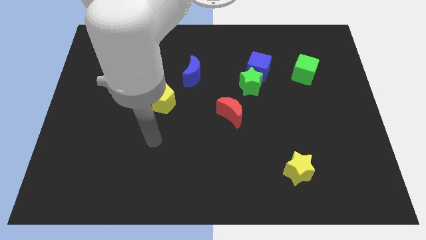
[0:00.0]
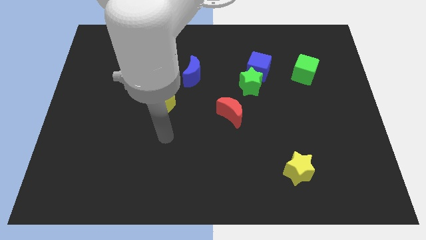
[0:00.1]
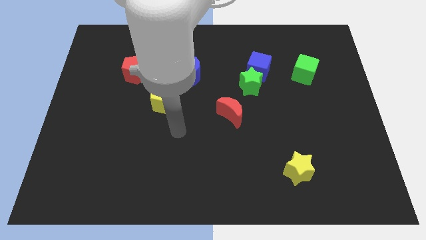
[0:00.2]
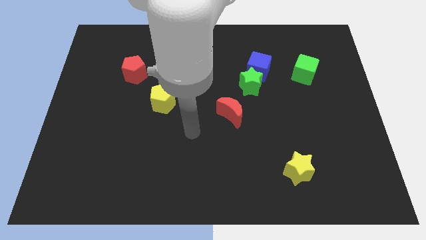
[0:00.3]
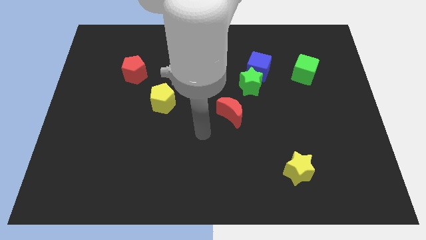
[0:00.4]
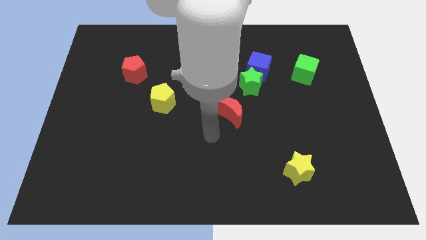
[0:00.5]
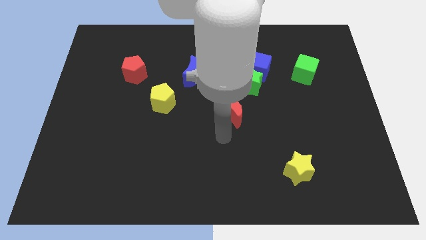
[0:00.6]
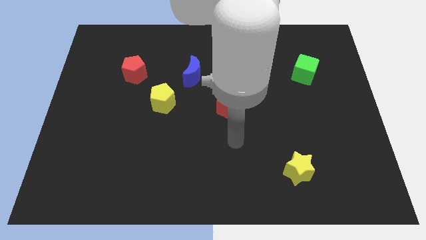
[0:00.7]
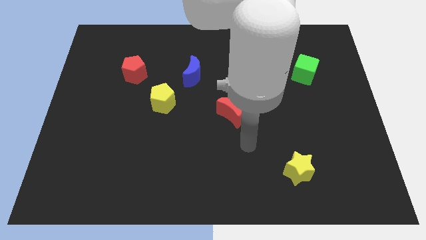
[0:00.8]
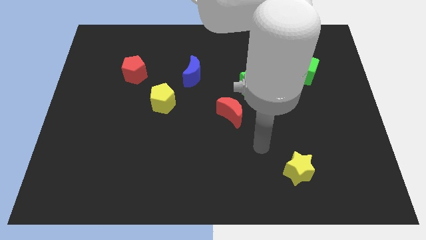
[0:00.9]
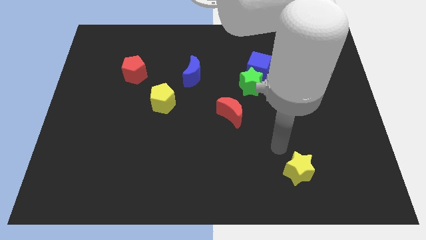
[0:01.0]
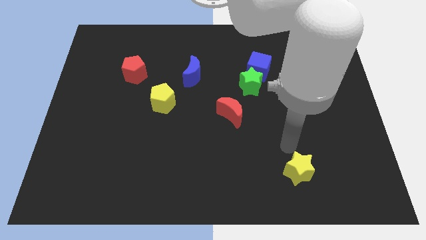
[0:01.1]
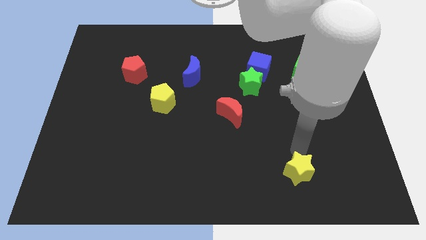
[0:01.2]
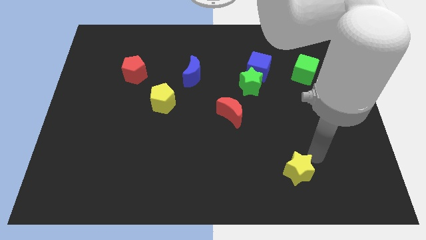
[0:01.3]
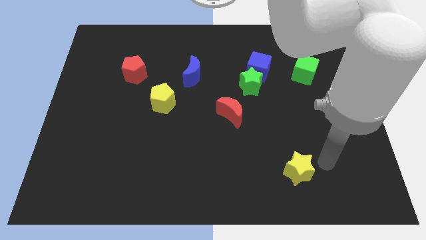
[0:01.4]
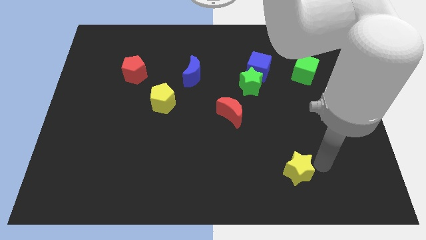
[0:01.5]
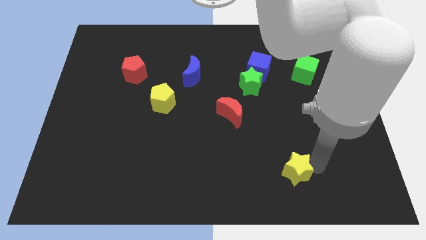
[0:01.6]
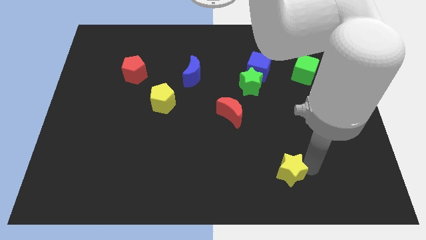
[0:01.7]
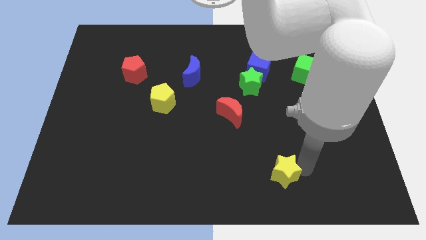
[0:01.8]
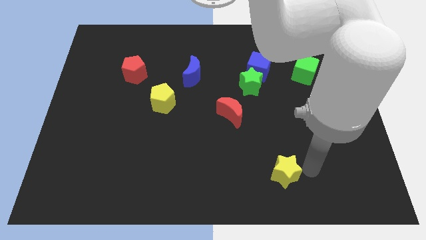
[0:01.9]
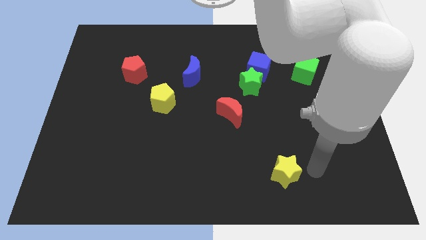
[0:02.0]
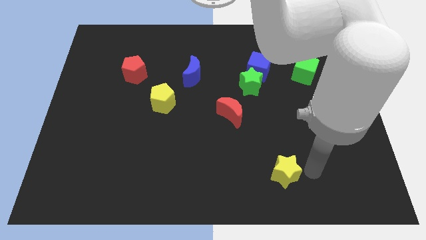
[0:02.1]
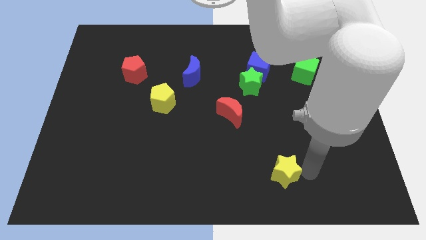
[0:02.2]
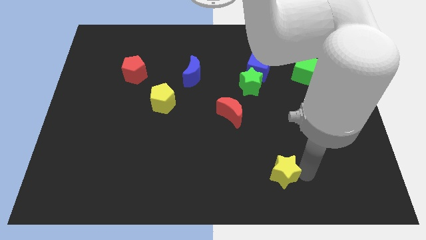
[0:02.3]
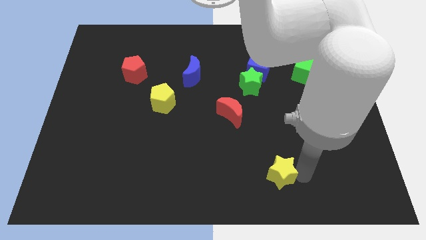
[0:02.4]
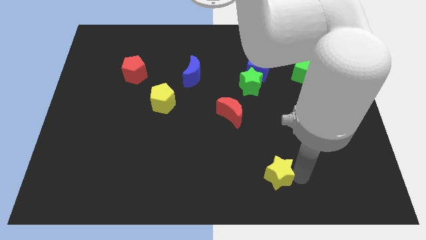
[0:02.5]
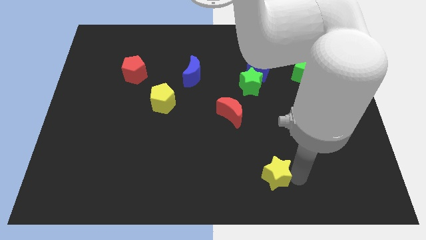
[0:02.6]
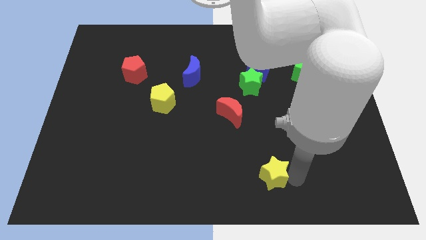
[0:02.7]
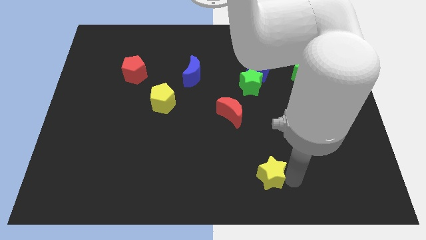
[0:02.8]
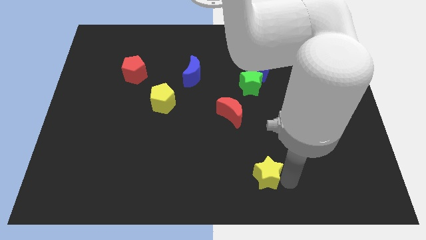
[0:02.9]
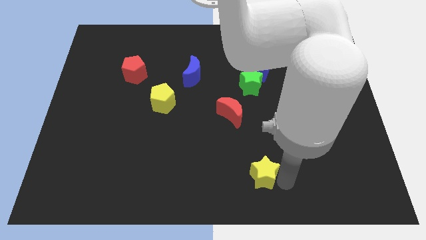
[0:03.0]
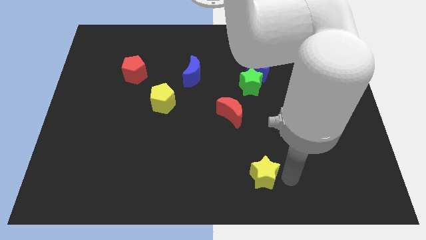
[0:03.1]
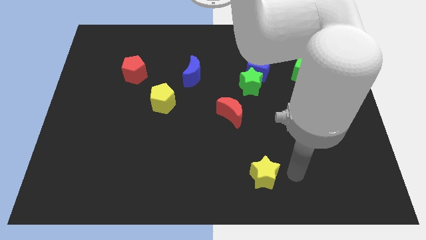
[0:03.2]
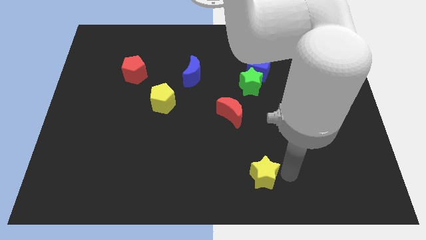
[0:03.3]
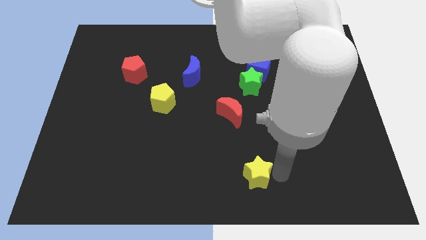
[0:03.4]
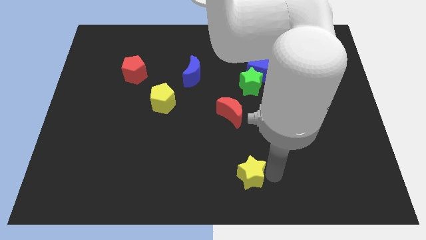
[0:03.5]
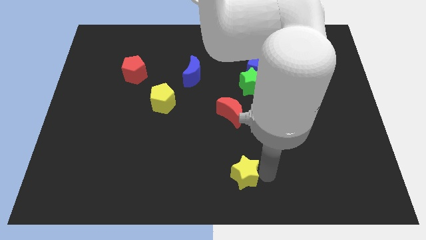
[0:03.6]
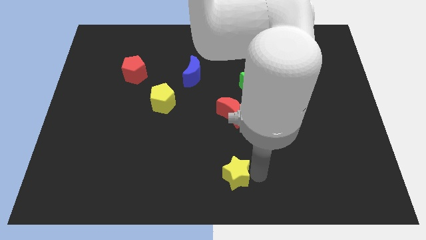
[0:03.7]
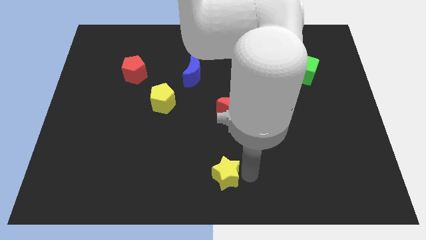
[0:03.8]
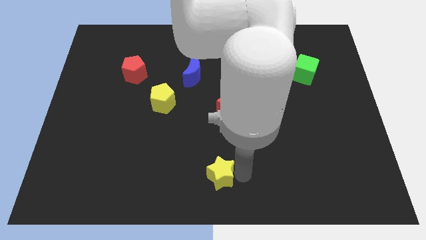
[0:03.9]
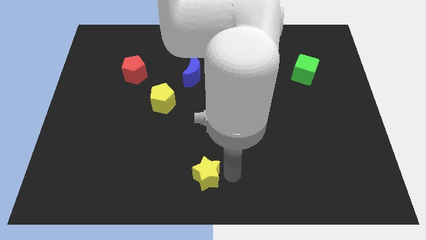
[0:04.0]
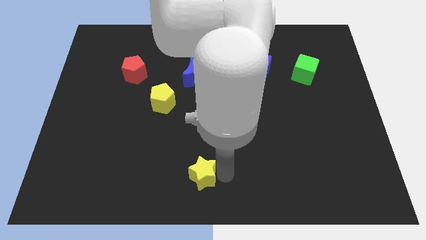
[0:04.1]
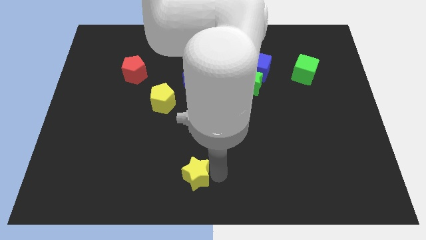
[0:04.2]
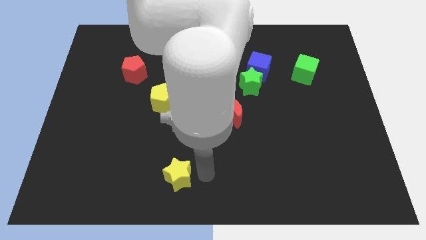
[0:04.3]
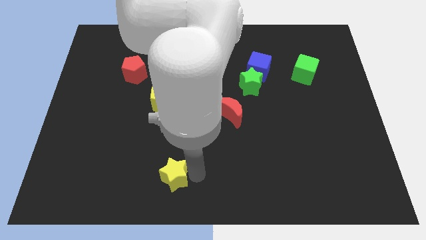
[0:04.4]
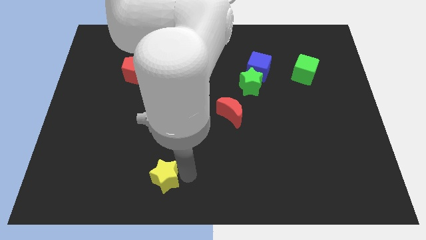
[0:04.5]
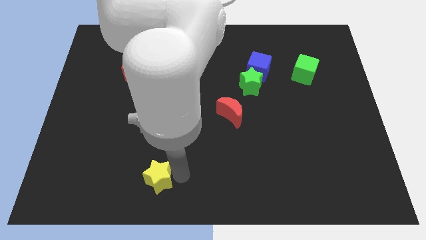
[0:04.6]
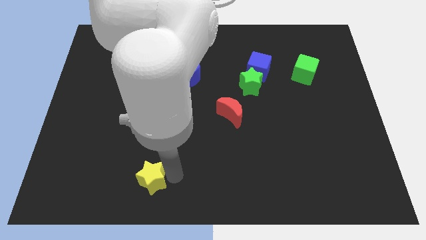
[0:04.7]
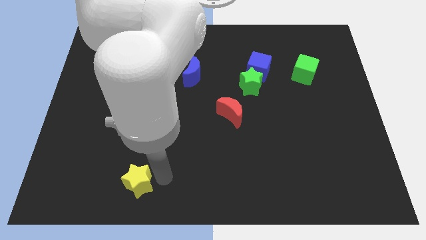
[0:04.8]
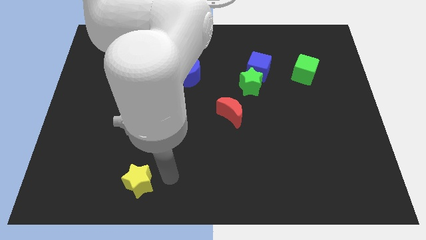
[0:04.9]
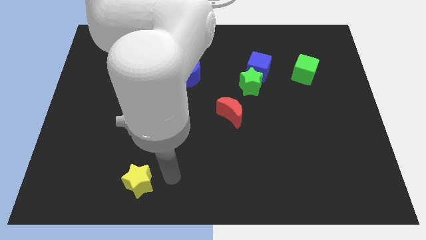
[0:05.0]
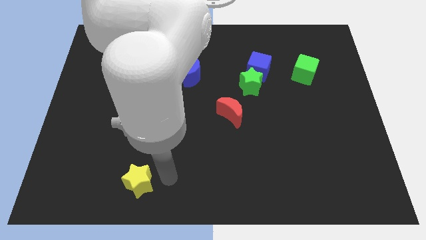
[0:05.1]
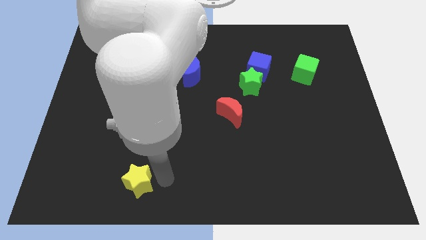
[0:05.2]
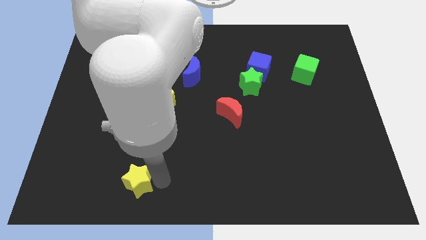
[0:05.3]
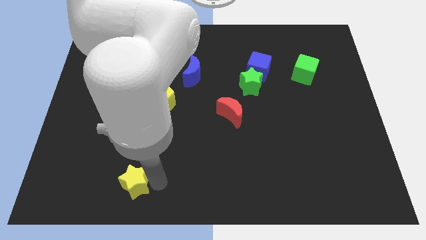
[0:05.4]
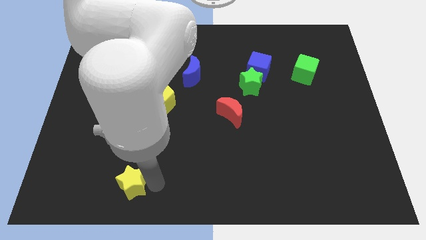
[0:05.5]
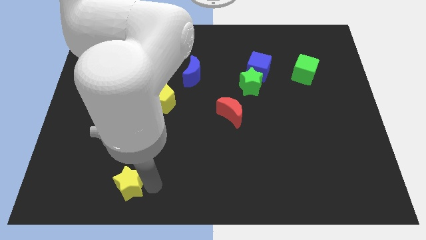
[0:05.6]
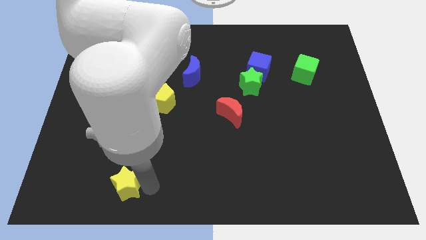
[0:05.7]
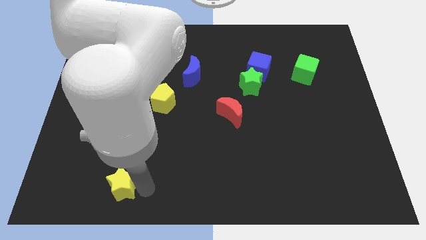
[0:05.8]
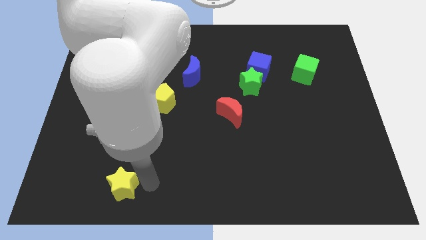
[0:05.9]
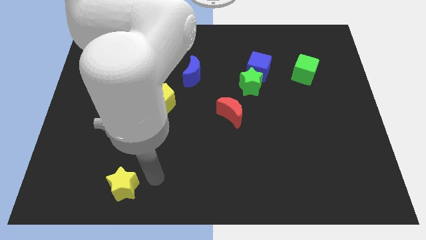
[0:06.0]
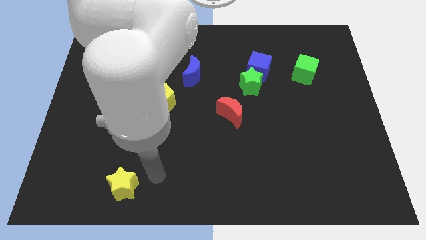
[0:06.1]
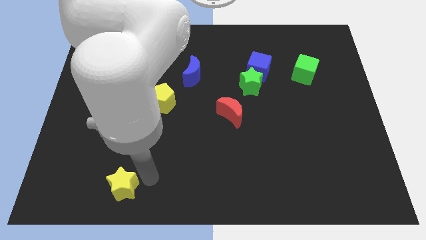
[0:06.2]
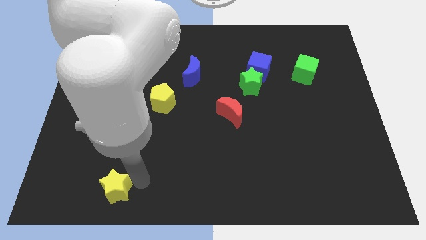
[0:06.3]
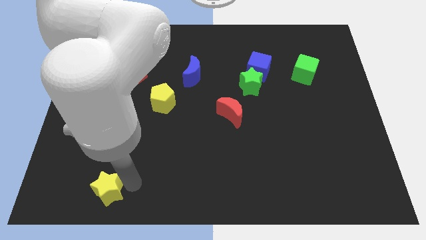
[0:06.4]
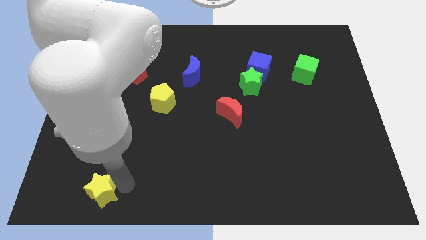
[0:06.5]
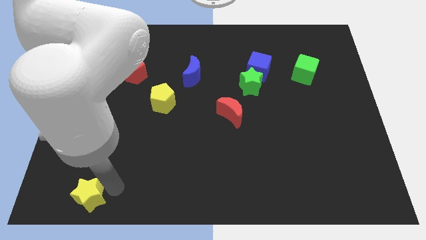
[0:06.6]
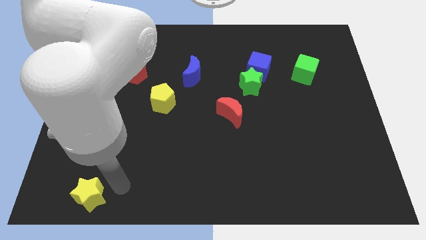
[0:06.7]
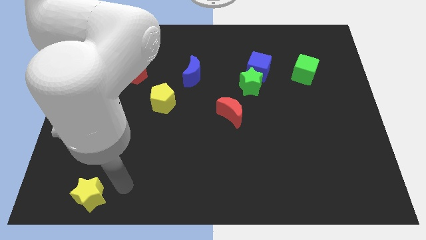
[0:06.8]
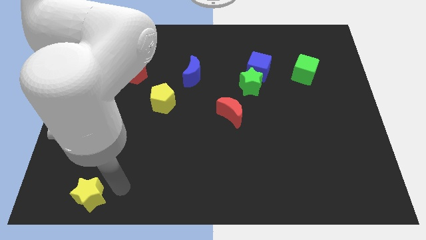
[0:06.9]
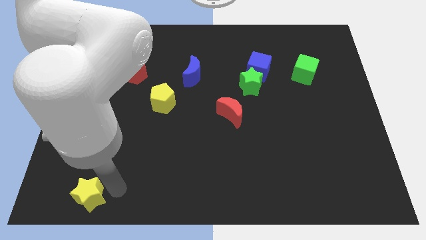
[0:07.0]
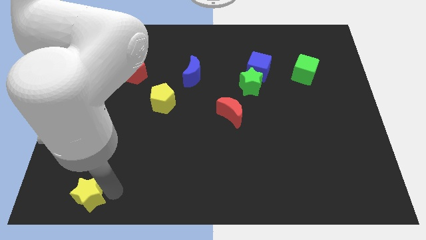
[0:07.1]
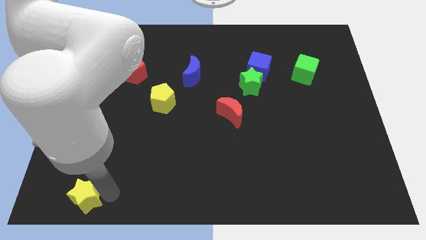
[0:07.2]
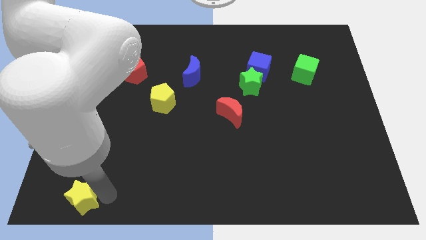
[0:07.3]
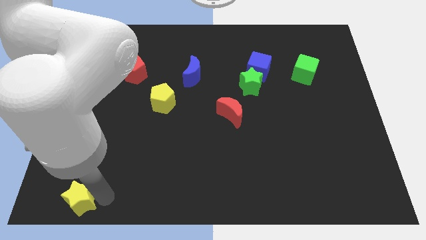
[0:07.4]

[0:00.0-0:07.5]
push the yellow star to the bottom left corner

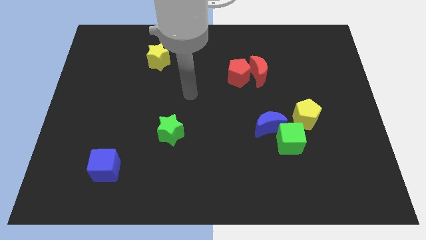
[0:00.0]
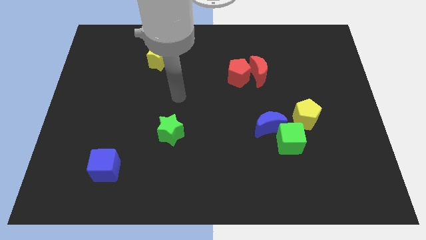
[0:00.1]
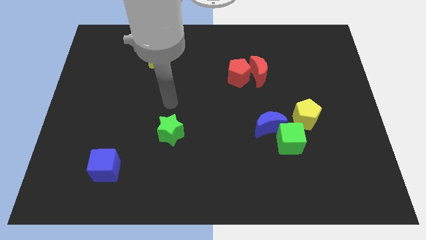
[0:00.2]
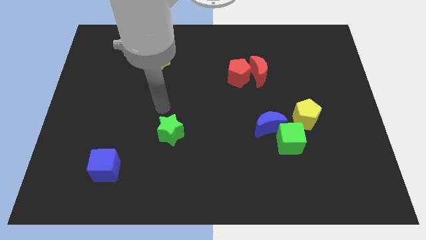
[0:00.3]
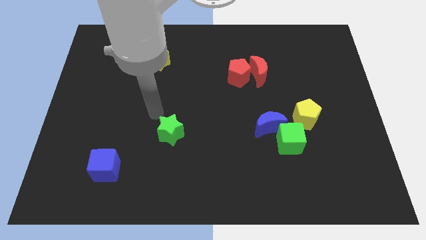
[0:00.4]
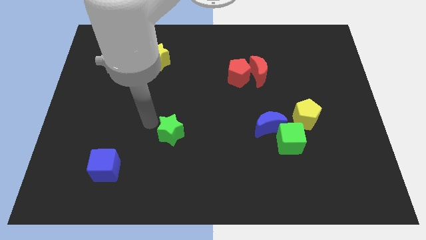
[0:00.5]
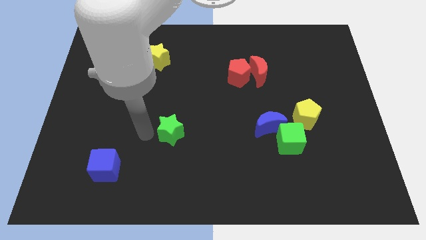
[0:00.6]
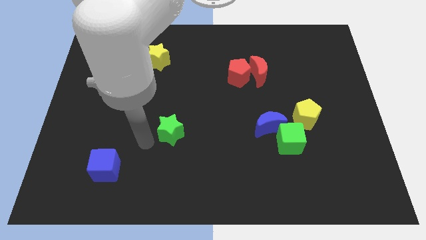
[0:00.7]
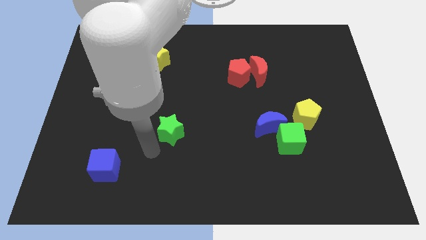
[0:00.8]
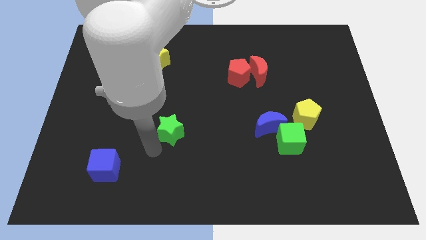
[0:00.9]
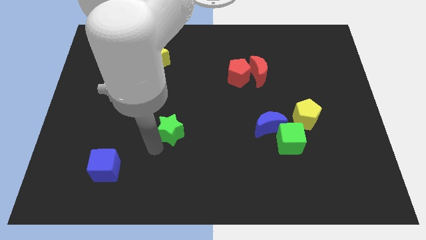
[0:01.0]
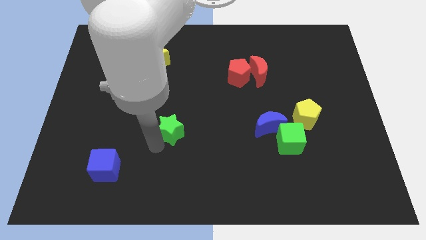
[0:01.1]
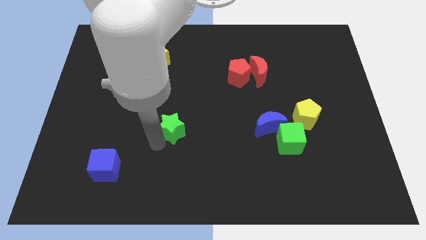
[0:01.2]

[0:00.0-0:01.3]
put the green star to the center
